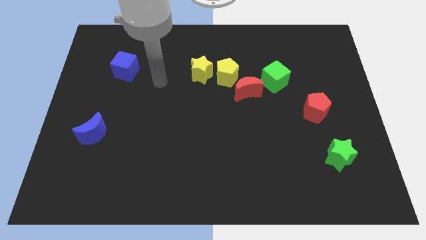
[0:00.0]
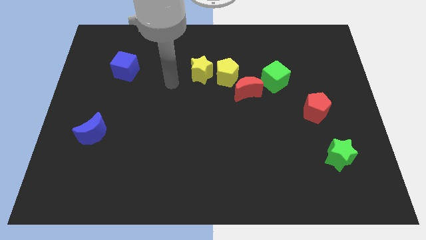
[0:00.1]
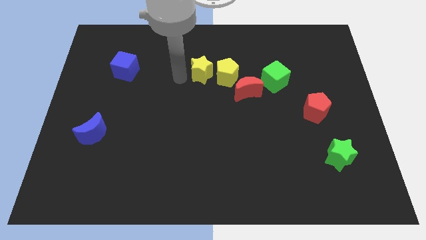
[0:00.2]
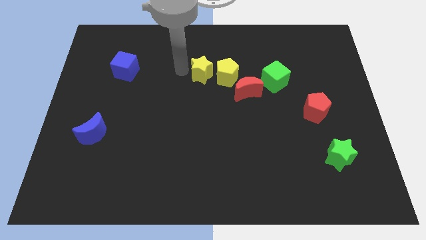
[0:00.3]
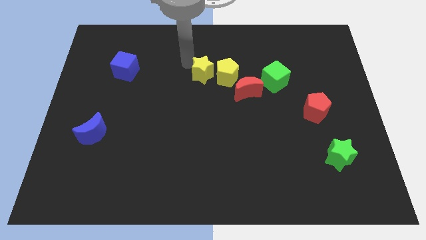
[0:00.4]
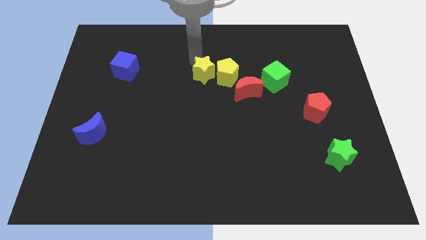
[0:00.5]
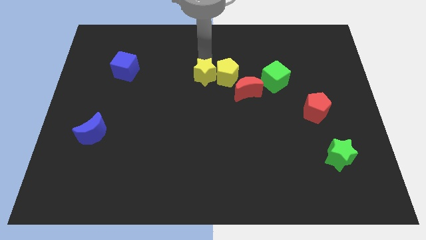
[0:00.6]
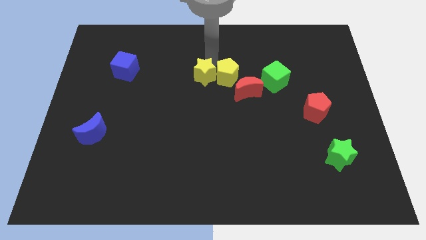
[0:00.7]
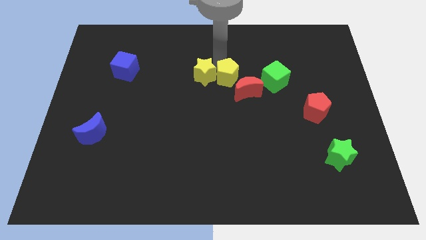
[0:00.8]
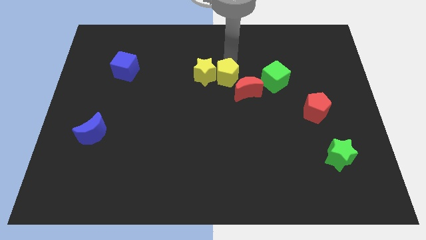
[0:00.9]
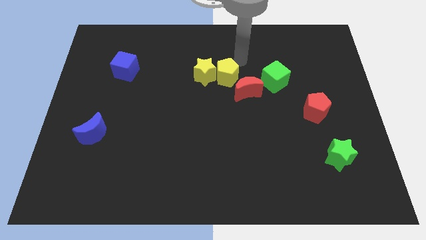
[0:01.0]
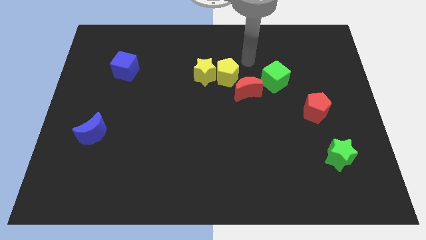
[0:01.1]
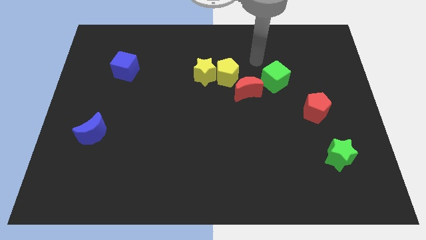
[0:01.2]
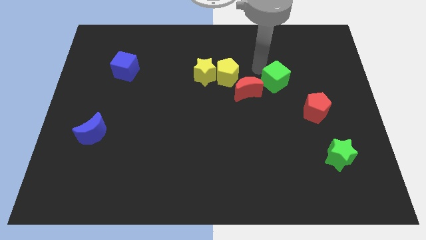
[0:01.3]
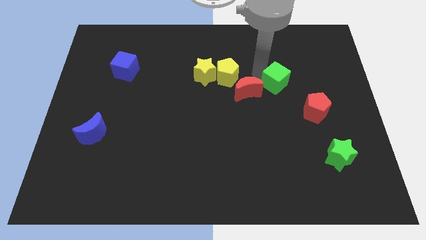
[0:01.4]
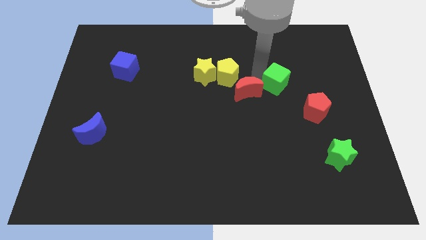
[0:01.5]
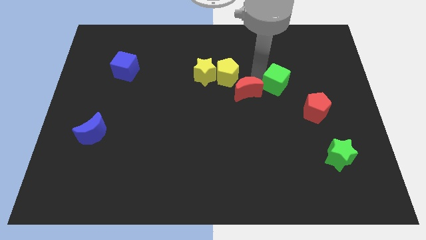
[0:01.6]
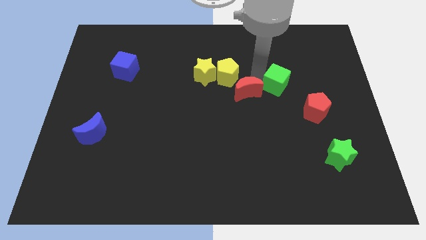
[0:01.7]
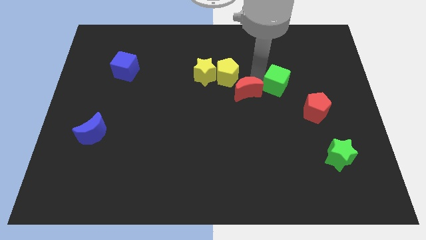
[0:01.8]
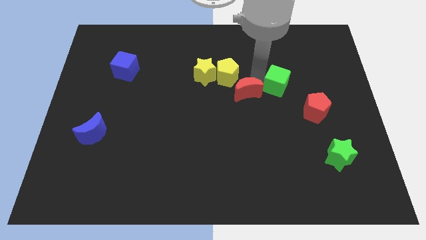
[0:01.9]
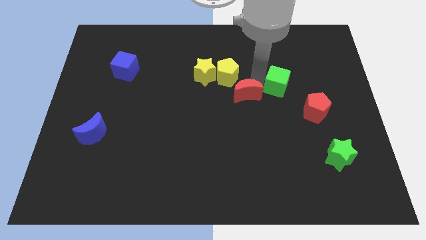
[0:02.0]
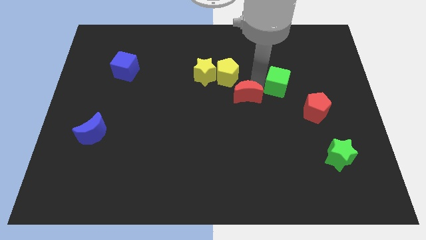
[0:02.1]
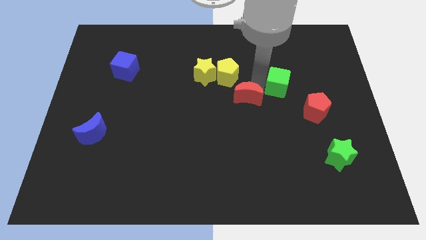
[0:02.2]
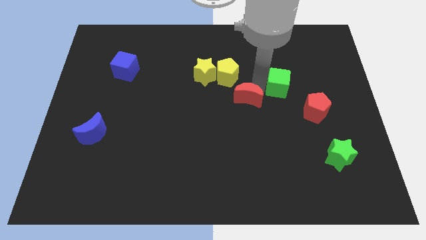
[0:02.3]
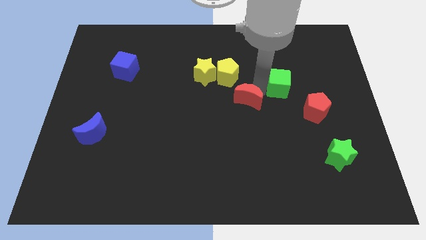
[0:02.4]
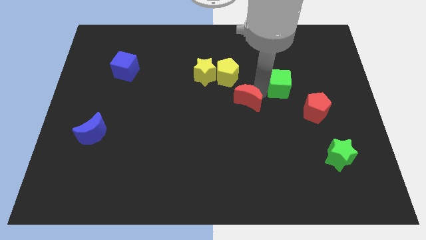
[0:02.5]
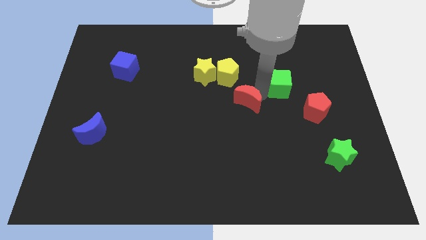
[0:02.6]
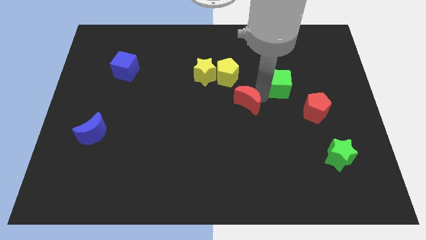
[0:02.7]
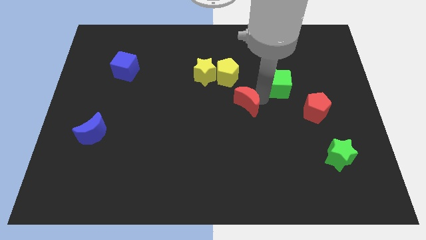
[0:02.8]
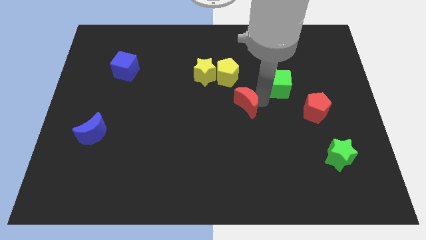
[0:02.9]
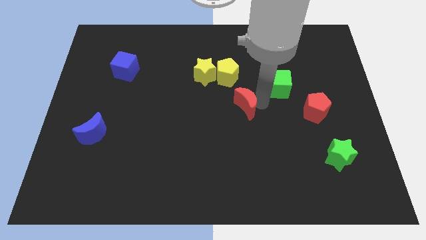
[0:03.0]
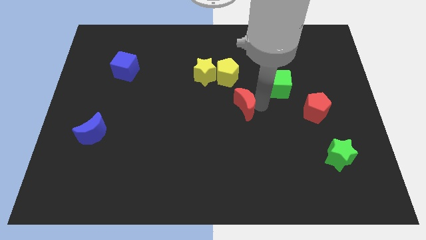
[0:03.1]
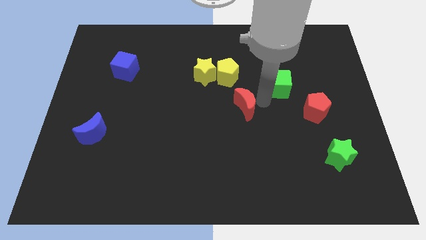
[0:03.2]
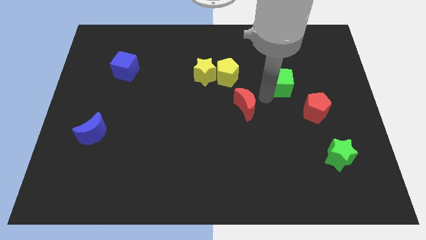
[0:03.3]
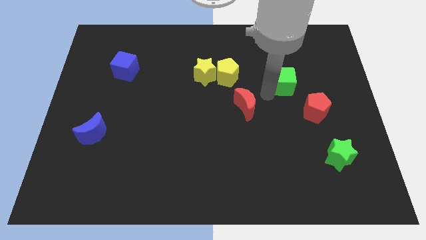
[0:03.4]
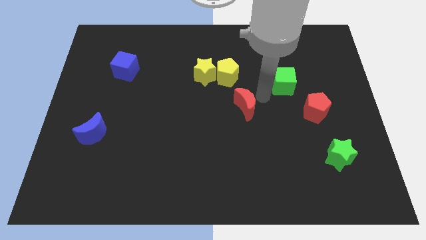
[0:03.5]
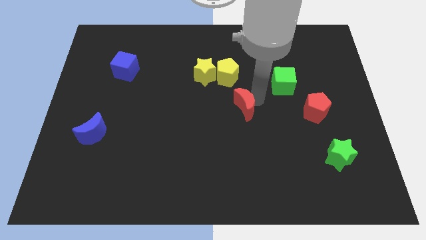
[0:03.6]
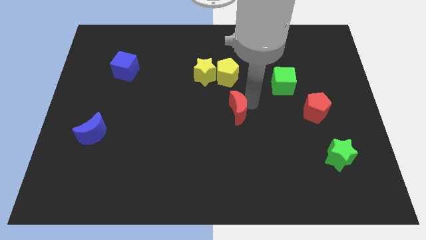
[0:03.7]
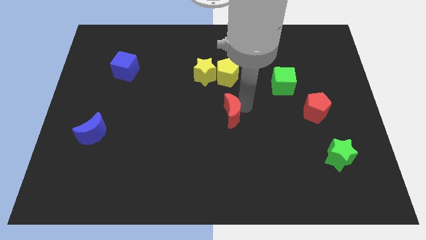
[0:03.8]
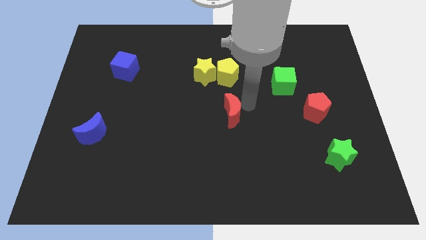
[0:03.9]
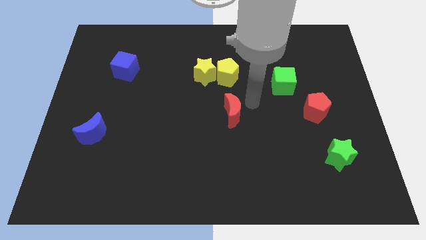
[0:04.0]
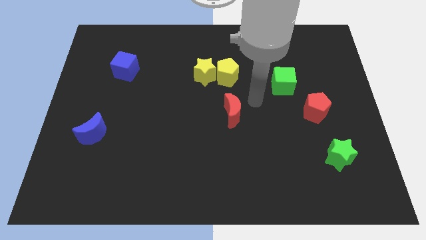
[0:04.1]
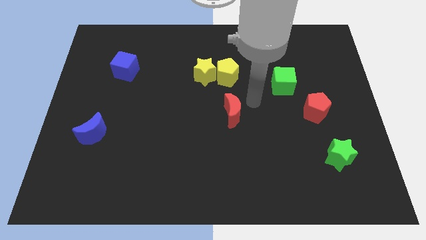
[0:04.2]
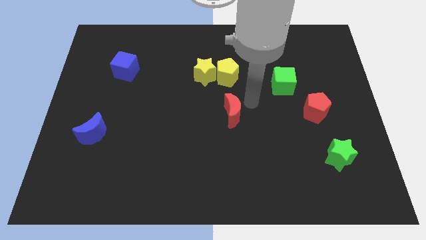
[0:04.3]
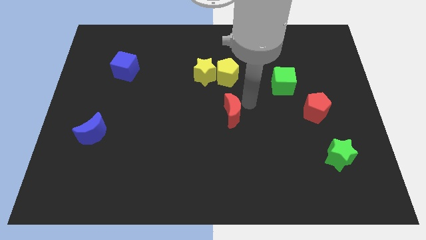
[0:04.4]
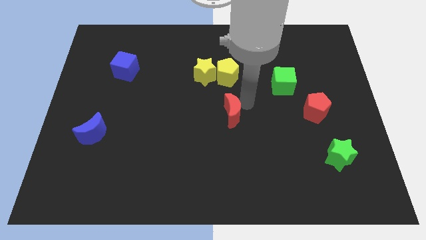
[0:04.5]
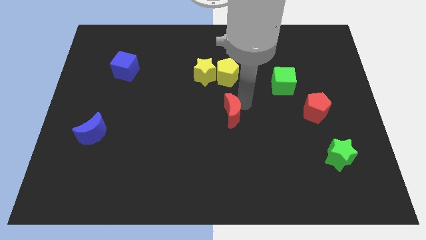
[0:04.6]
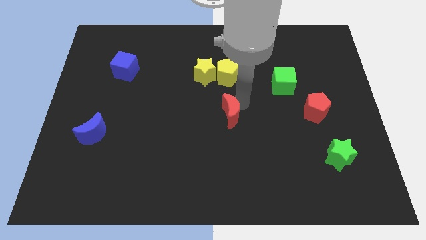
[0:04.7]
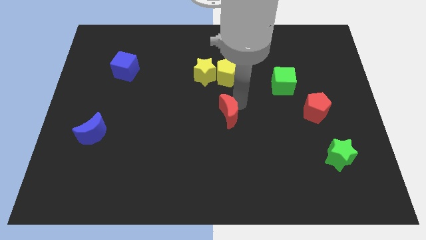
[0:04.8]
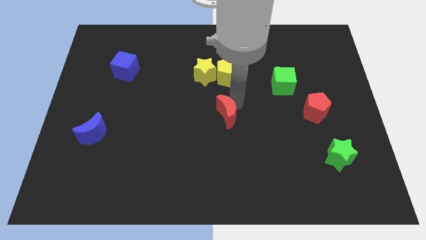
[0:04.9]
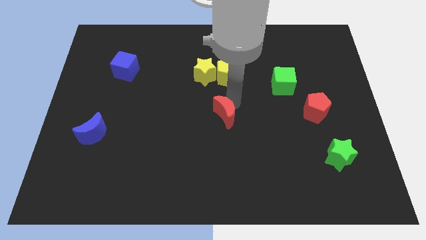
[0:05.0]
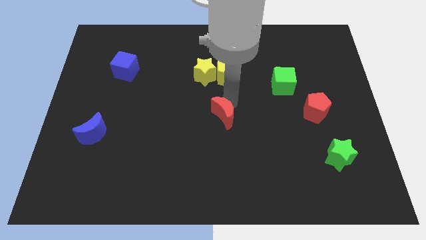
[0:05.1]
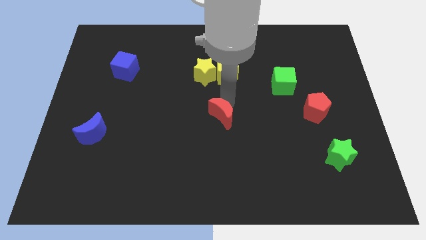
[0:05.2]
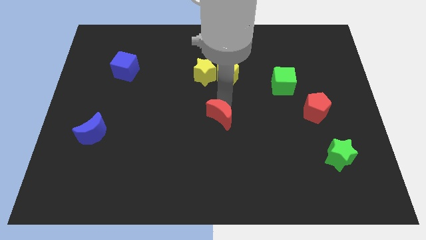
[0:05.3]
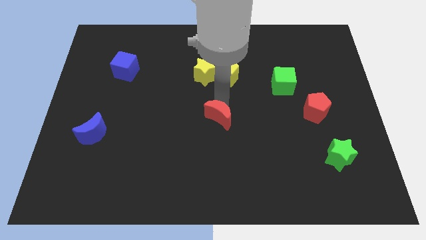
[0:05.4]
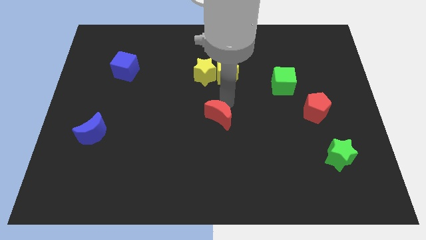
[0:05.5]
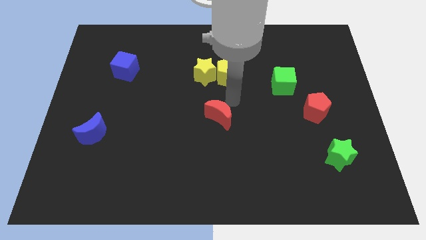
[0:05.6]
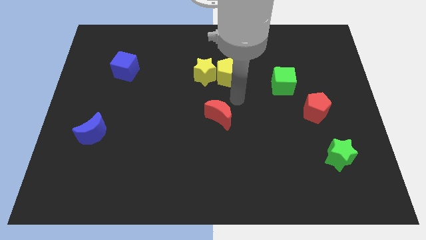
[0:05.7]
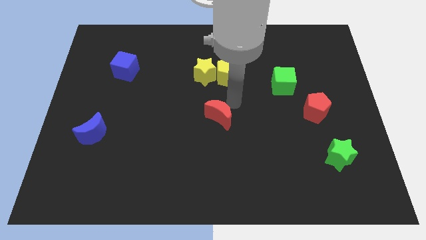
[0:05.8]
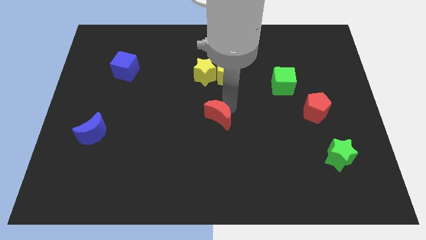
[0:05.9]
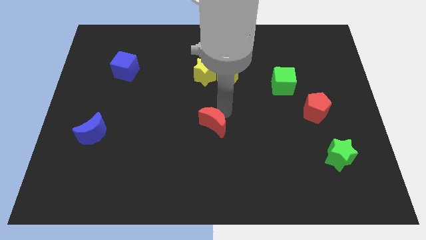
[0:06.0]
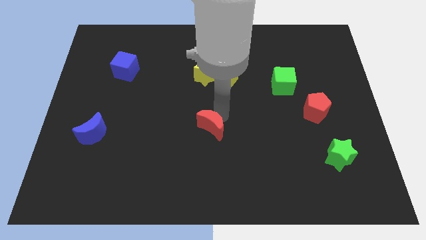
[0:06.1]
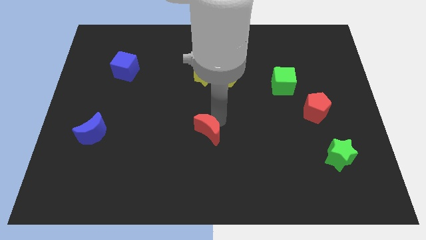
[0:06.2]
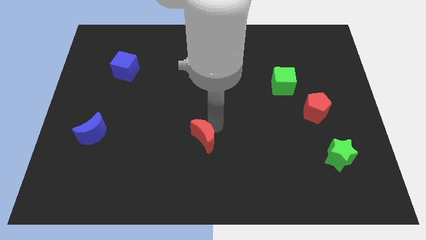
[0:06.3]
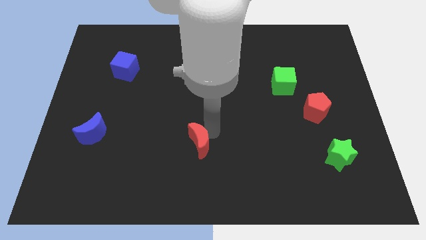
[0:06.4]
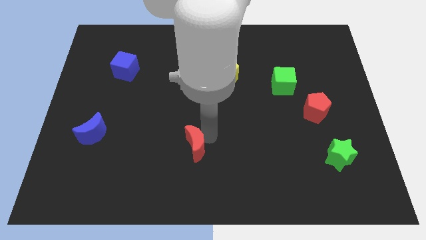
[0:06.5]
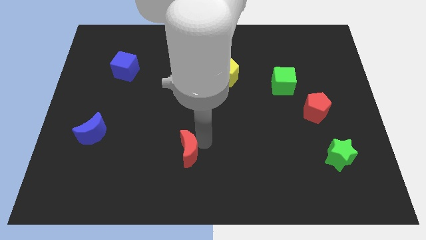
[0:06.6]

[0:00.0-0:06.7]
move the red moon downwards and to the left diagonally

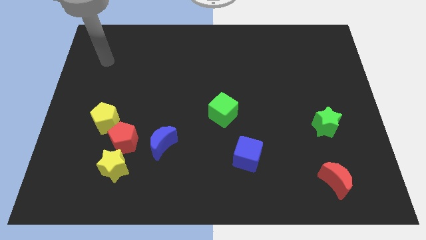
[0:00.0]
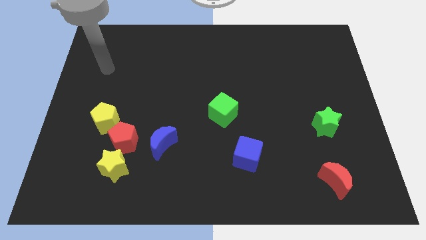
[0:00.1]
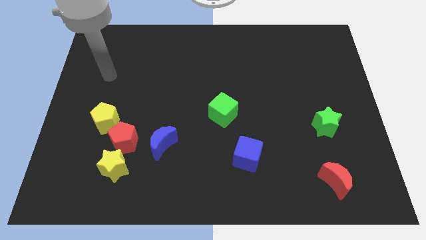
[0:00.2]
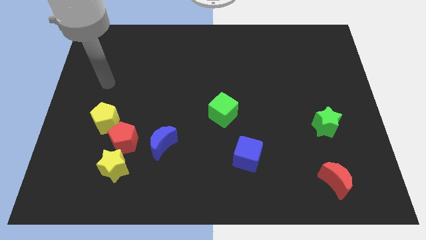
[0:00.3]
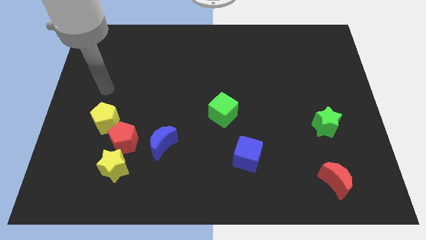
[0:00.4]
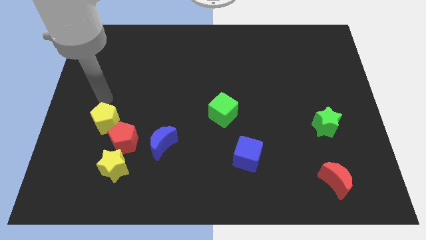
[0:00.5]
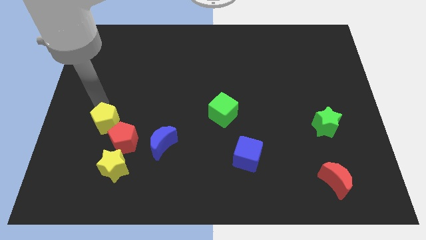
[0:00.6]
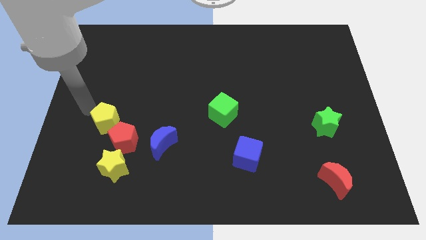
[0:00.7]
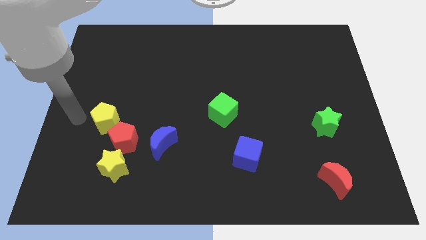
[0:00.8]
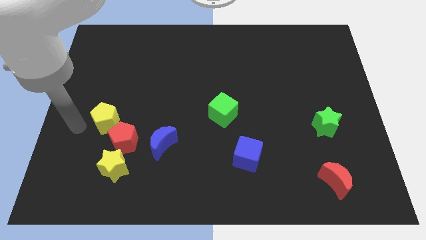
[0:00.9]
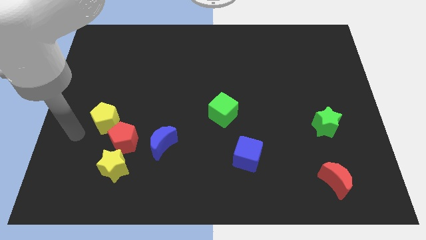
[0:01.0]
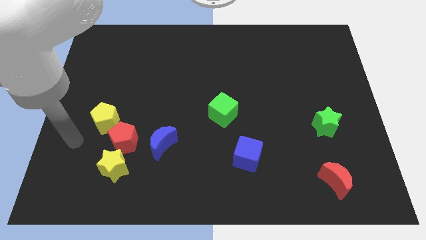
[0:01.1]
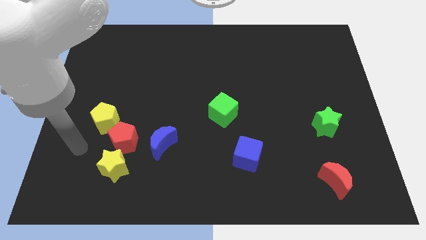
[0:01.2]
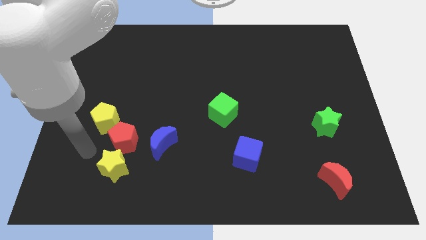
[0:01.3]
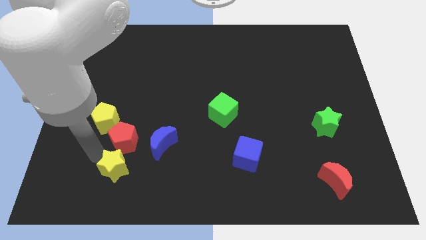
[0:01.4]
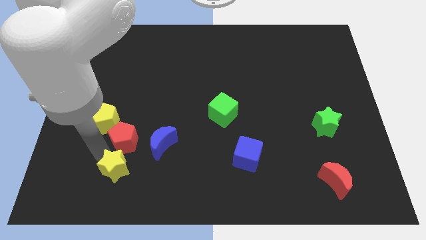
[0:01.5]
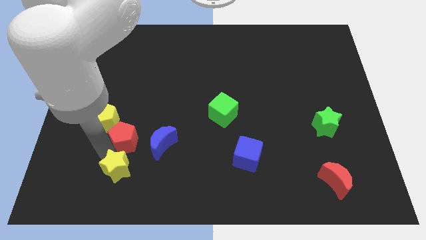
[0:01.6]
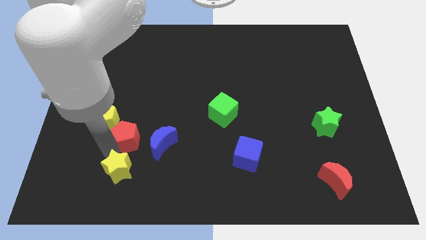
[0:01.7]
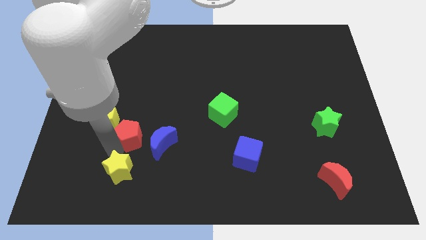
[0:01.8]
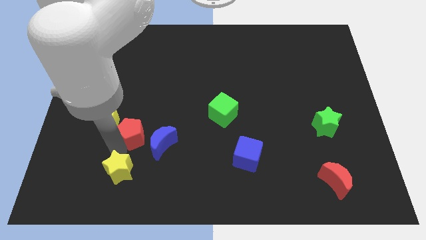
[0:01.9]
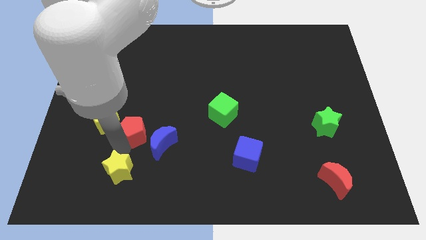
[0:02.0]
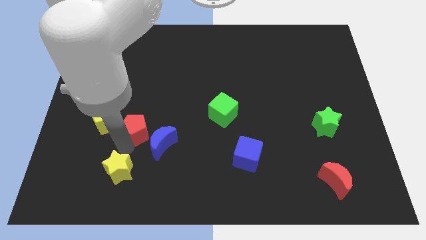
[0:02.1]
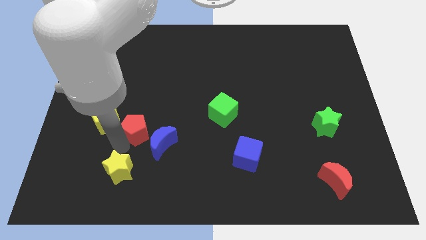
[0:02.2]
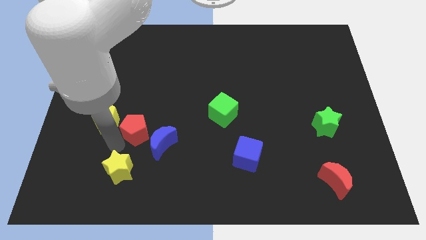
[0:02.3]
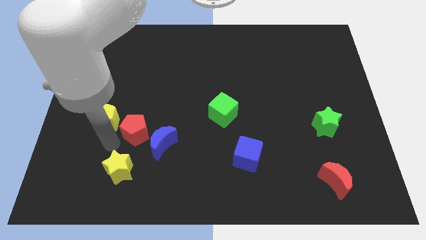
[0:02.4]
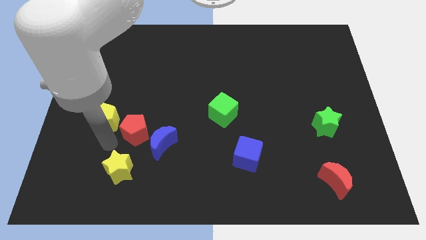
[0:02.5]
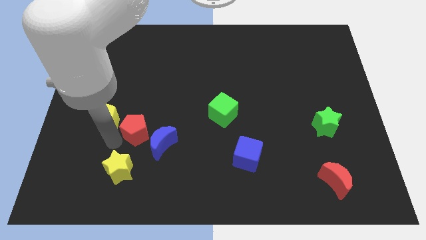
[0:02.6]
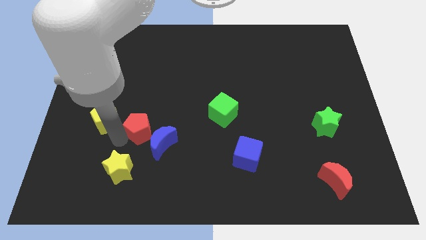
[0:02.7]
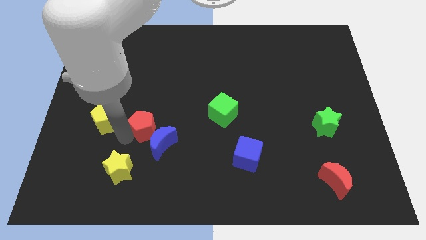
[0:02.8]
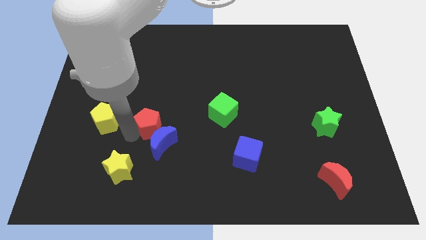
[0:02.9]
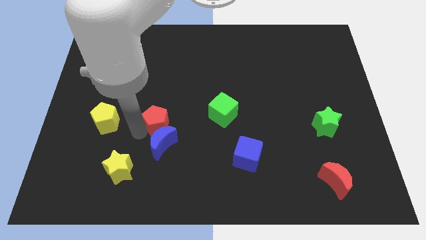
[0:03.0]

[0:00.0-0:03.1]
slightly move the red pentagon upwards and right diagonally
